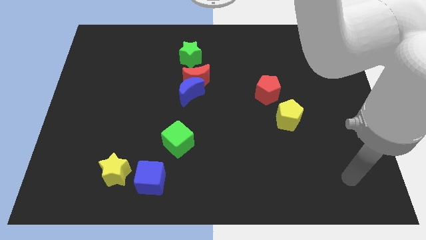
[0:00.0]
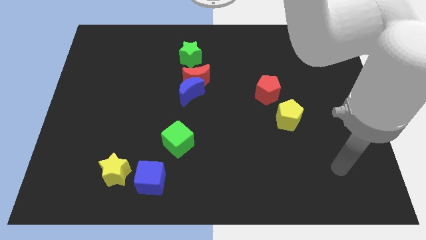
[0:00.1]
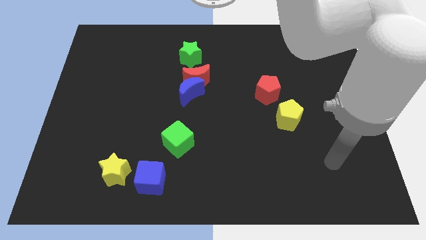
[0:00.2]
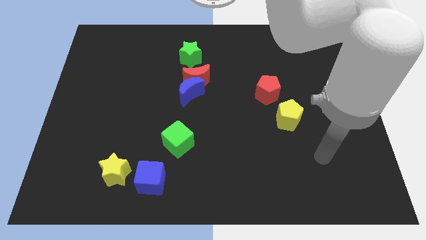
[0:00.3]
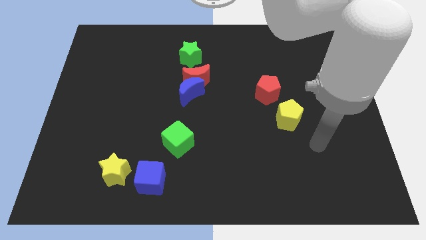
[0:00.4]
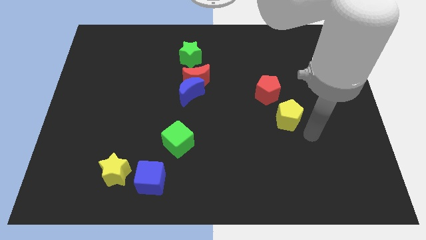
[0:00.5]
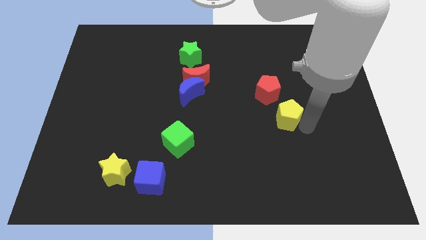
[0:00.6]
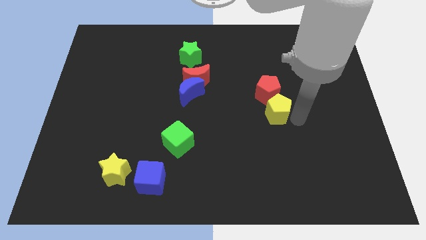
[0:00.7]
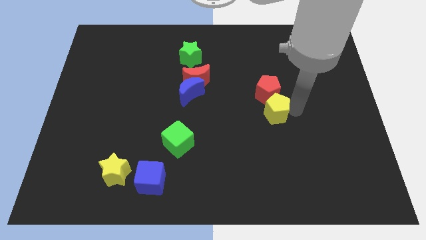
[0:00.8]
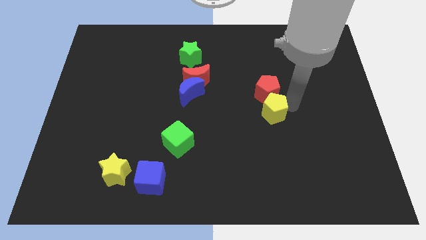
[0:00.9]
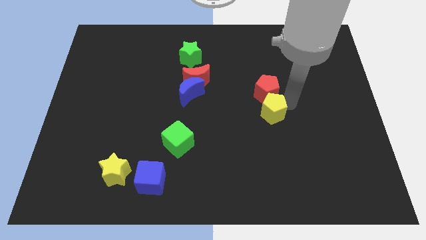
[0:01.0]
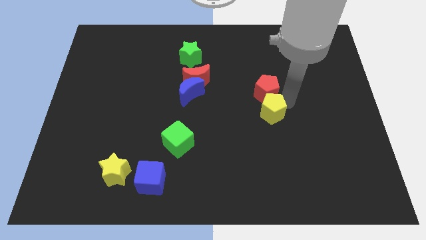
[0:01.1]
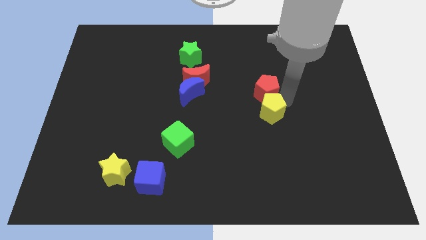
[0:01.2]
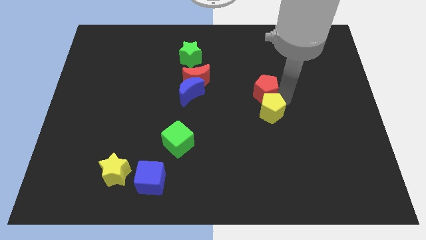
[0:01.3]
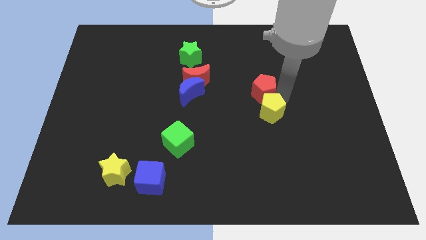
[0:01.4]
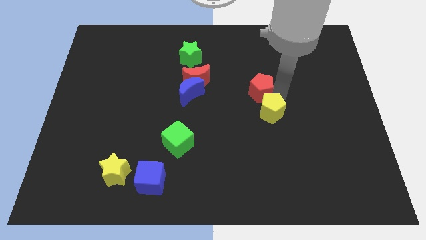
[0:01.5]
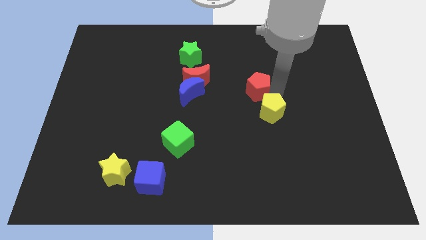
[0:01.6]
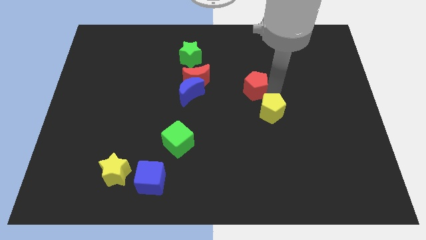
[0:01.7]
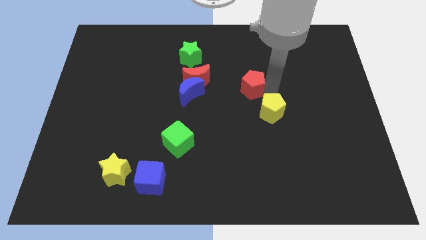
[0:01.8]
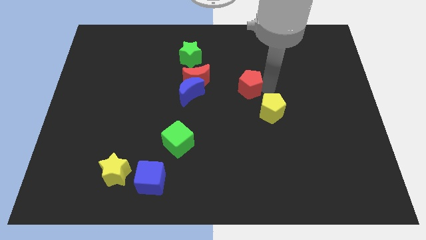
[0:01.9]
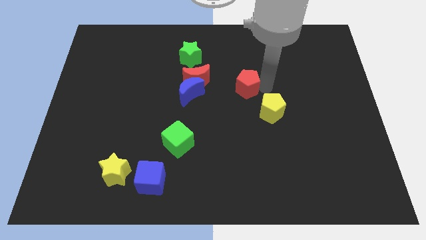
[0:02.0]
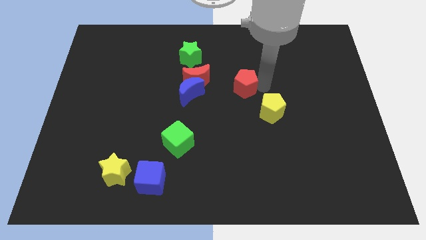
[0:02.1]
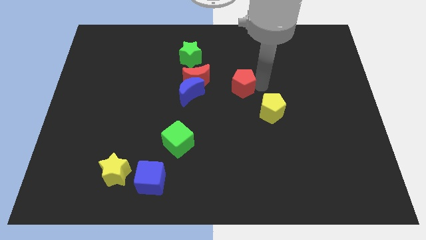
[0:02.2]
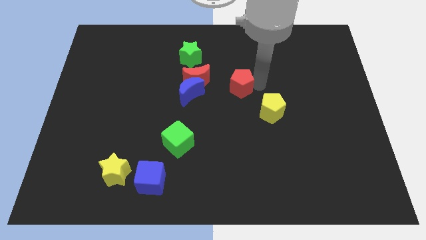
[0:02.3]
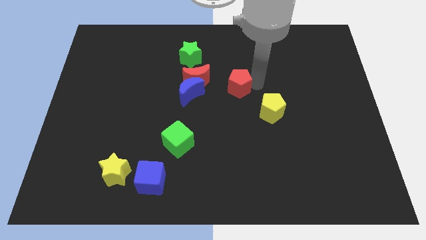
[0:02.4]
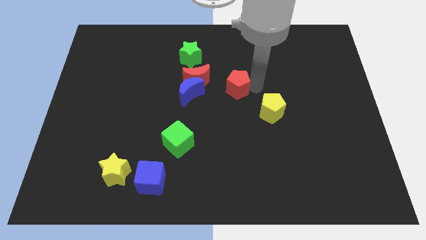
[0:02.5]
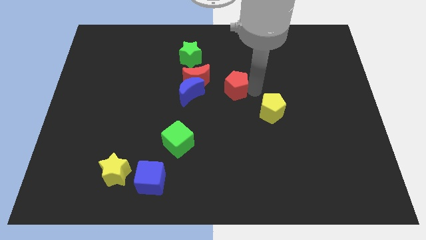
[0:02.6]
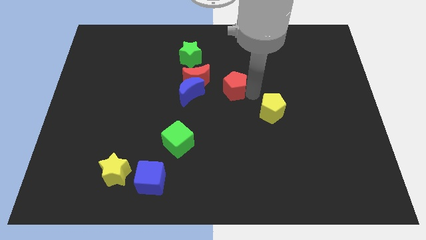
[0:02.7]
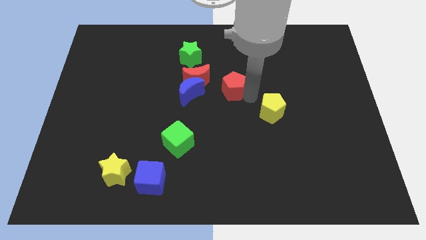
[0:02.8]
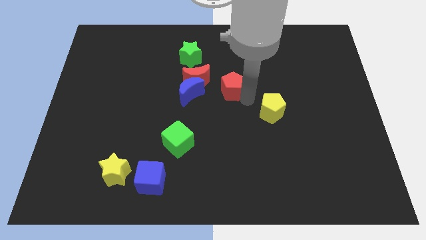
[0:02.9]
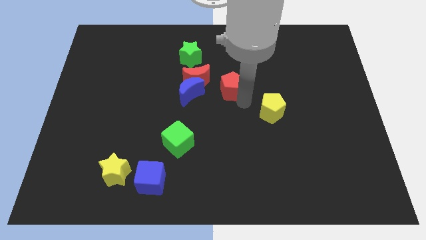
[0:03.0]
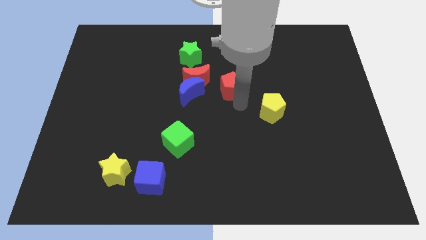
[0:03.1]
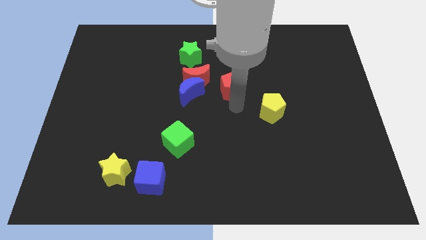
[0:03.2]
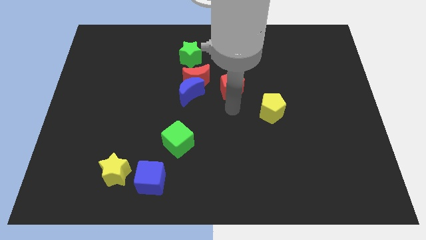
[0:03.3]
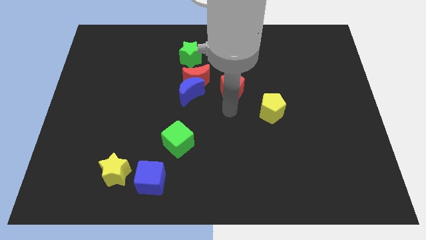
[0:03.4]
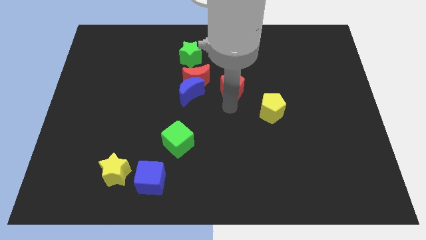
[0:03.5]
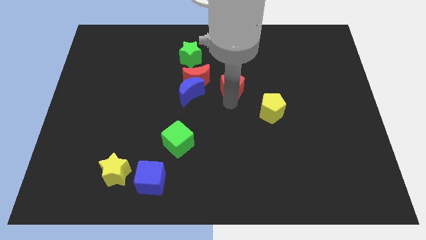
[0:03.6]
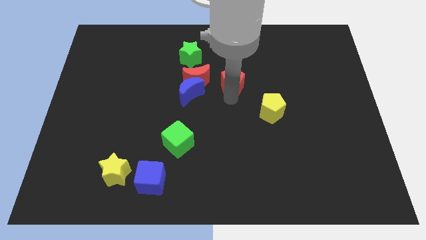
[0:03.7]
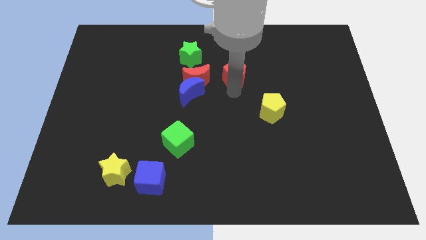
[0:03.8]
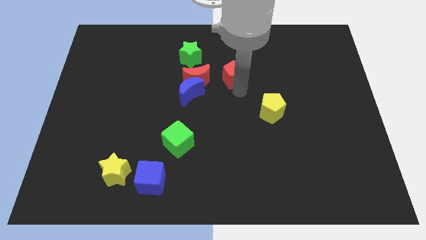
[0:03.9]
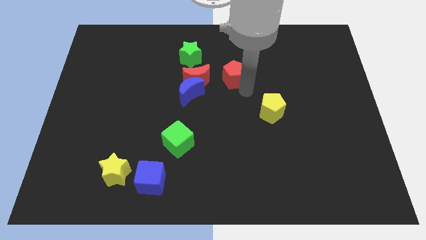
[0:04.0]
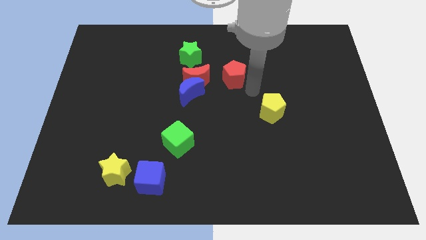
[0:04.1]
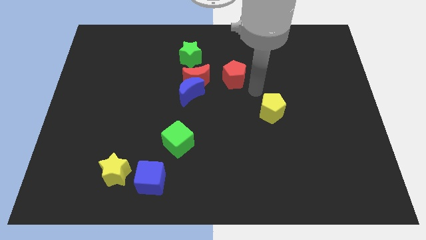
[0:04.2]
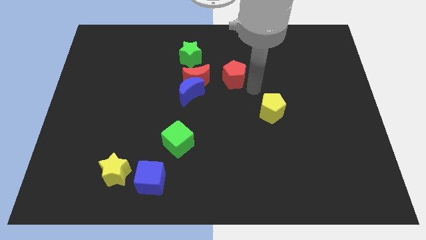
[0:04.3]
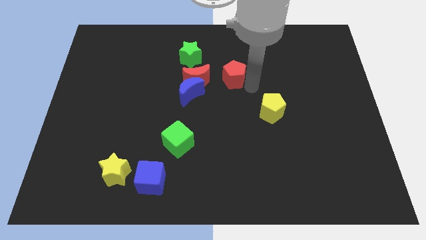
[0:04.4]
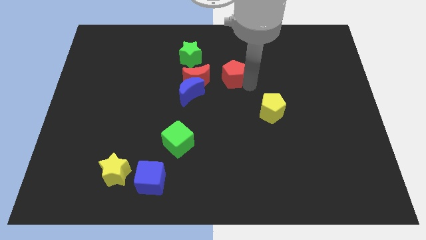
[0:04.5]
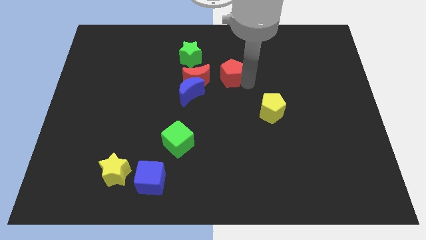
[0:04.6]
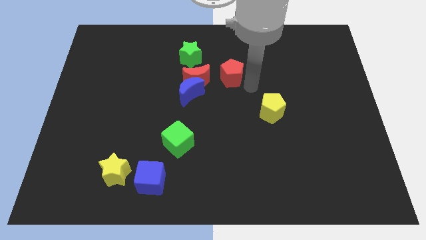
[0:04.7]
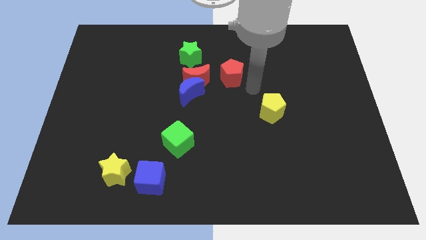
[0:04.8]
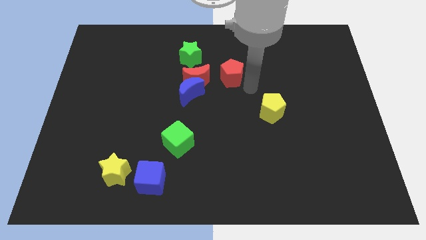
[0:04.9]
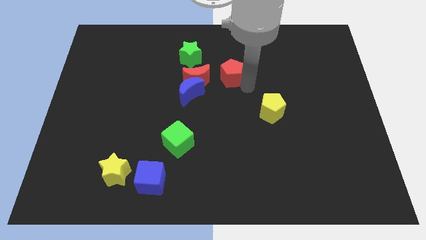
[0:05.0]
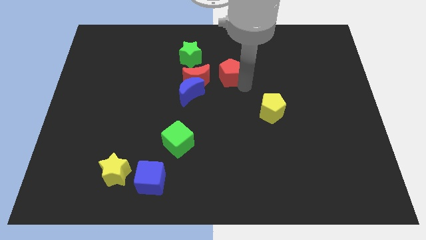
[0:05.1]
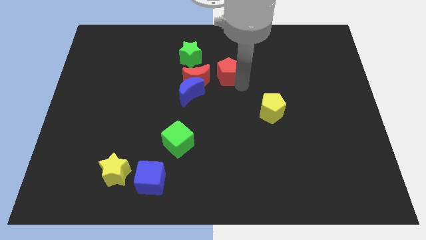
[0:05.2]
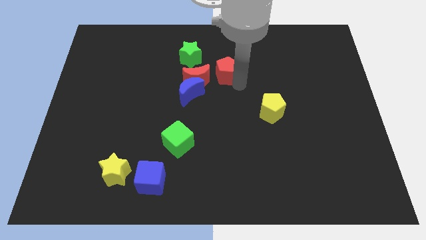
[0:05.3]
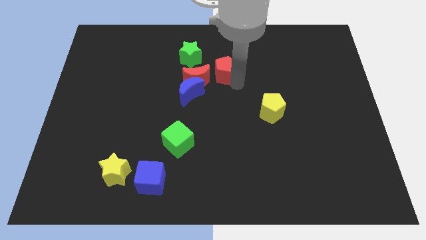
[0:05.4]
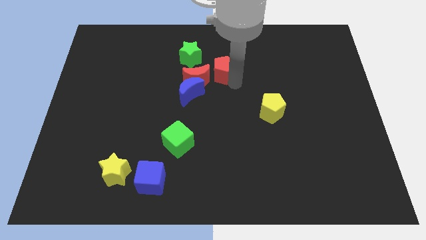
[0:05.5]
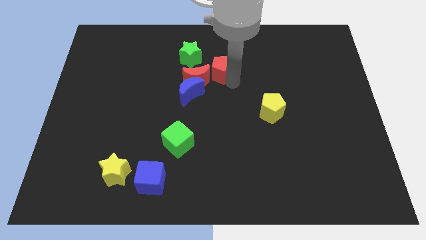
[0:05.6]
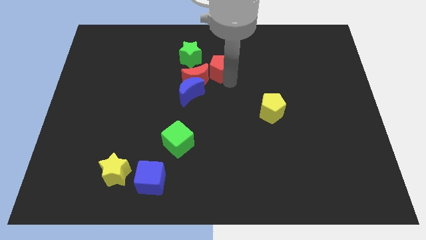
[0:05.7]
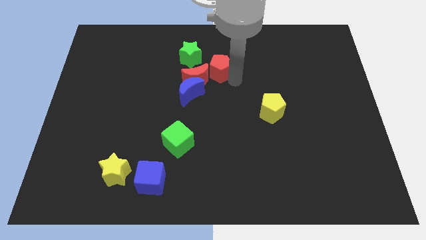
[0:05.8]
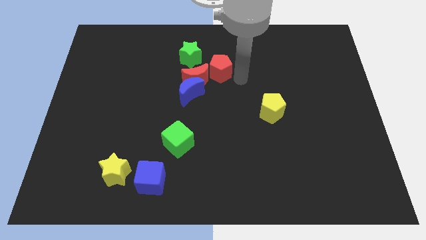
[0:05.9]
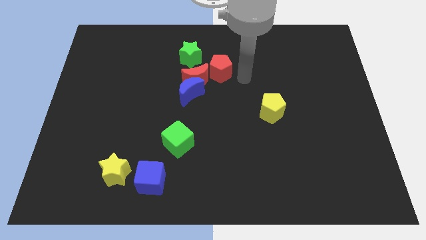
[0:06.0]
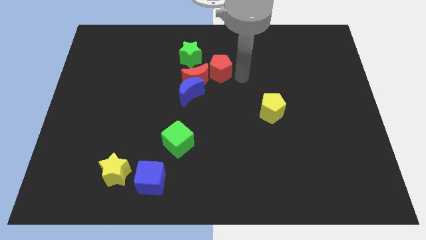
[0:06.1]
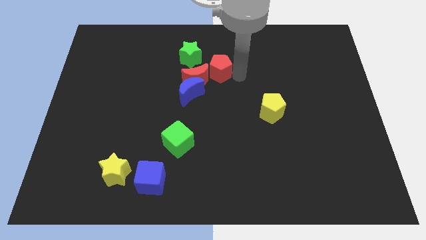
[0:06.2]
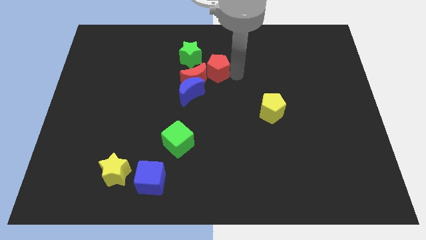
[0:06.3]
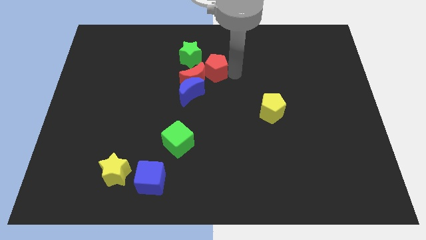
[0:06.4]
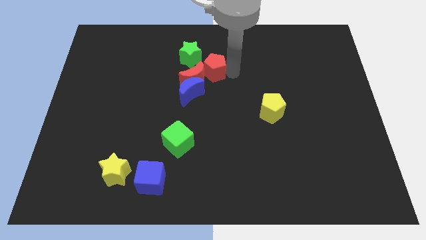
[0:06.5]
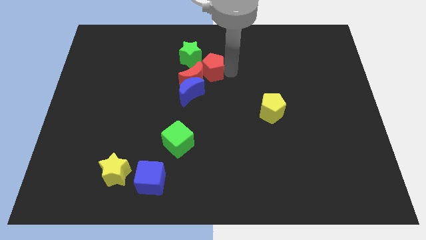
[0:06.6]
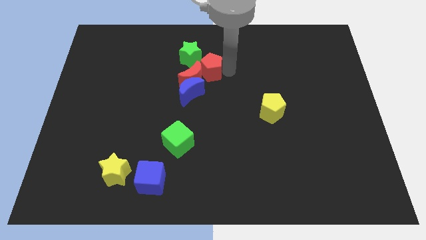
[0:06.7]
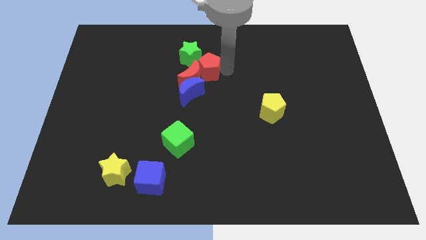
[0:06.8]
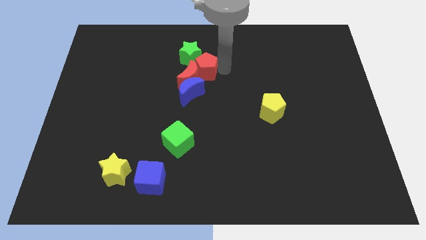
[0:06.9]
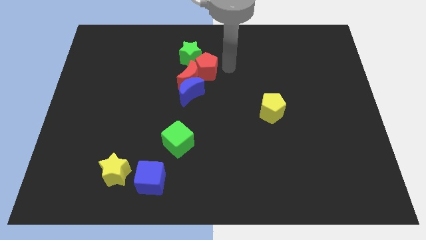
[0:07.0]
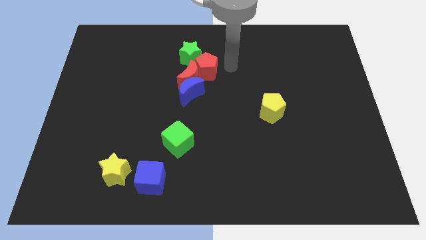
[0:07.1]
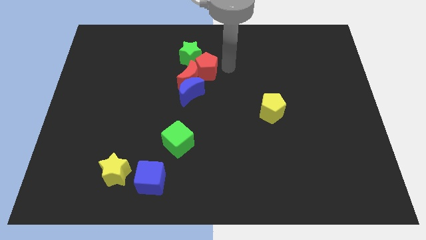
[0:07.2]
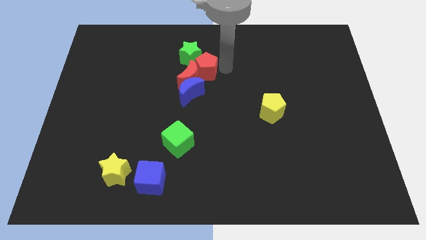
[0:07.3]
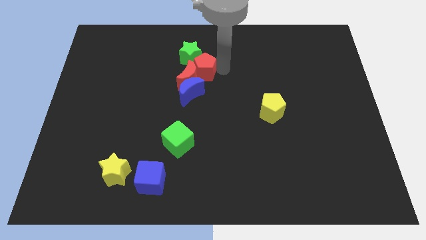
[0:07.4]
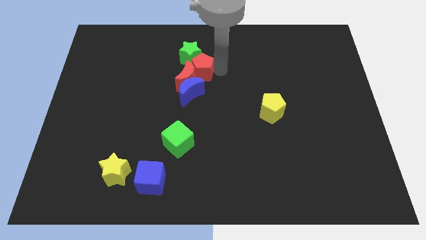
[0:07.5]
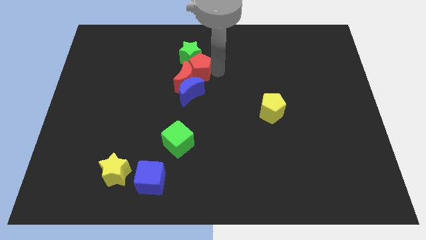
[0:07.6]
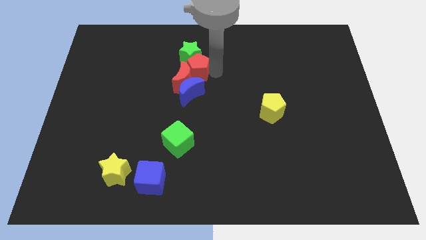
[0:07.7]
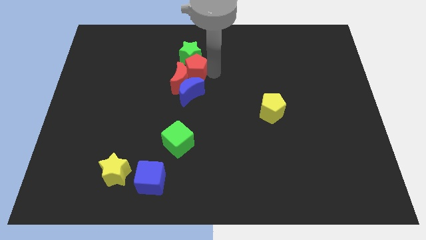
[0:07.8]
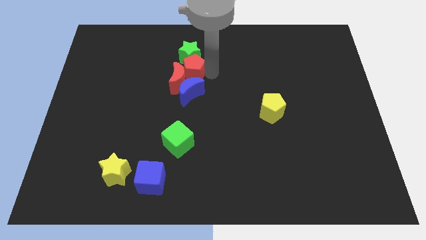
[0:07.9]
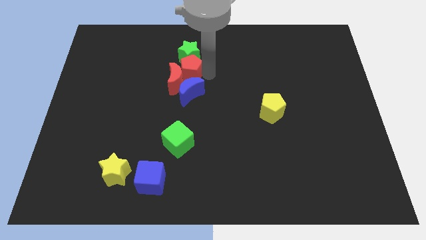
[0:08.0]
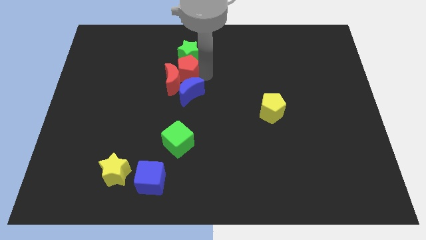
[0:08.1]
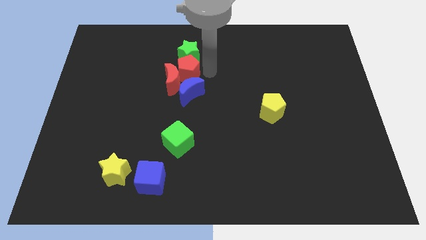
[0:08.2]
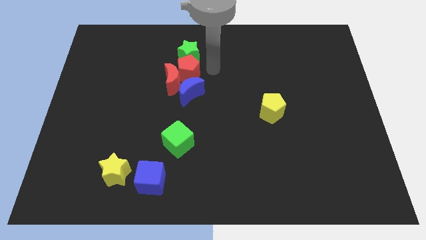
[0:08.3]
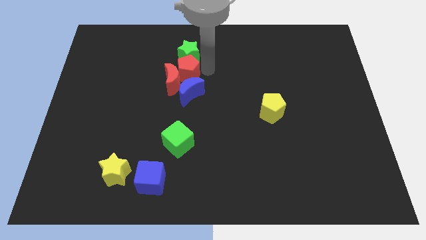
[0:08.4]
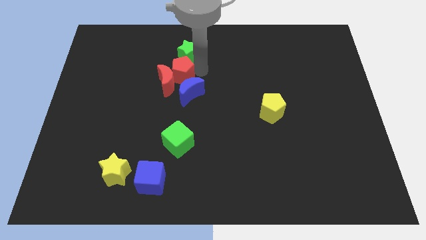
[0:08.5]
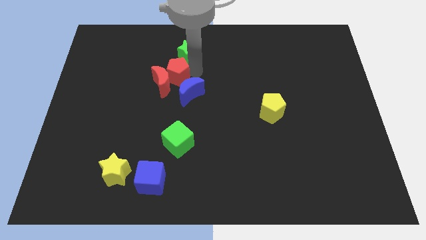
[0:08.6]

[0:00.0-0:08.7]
slide the red pentagon left
